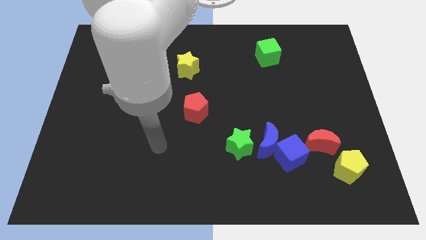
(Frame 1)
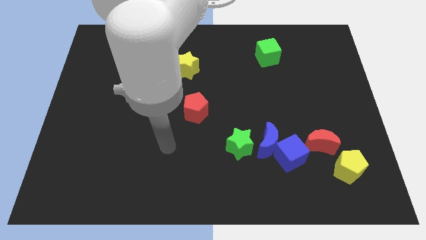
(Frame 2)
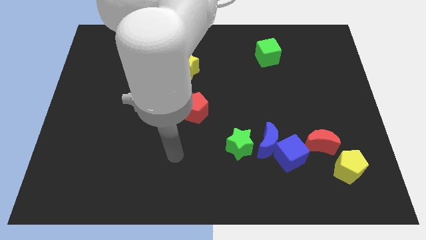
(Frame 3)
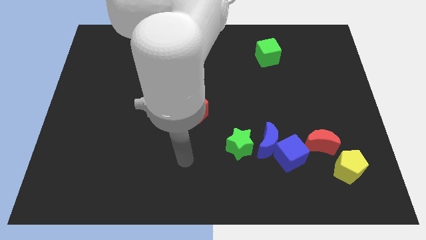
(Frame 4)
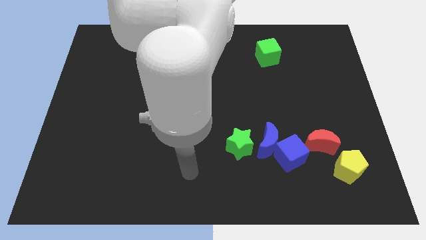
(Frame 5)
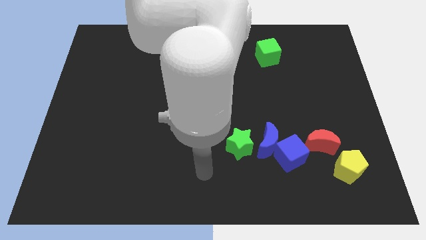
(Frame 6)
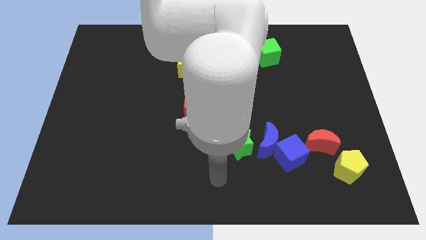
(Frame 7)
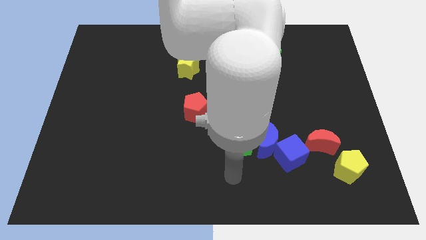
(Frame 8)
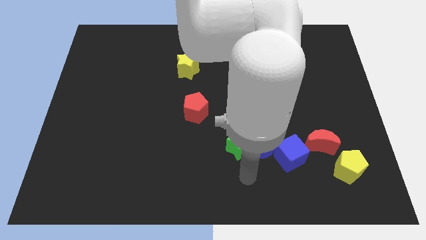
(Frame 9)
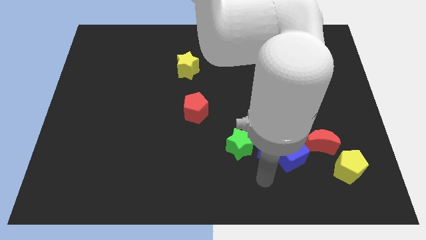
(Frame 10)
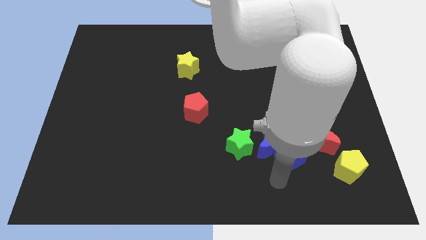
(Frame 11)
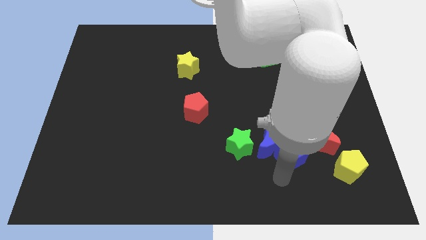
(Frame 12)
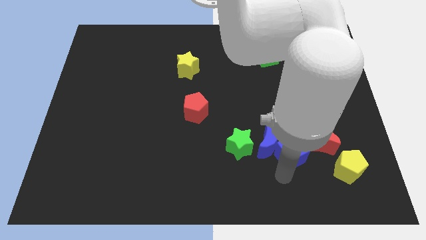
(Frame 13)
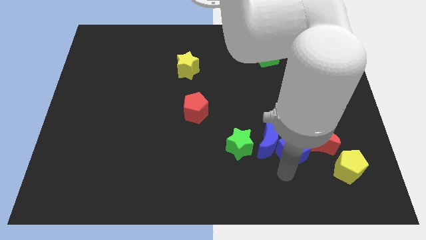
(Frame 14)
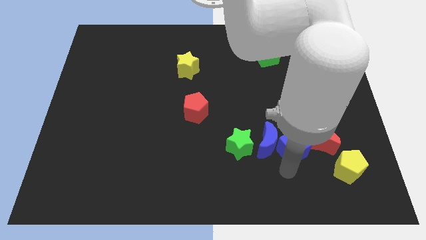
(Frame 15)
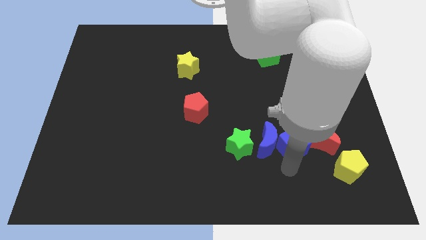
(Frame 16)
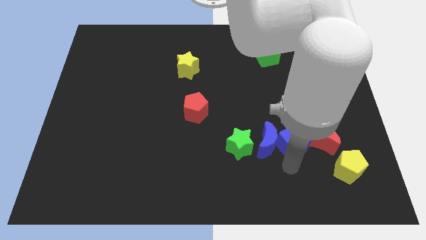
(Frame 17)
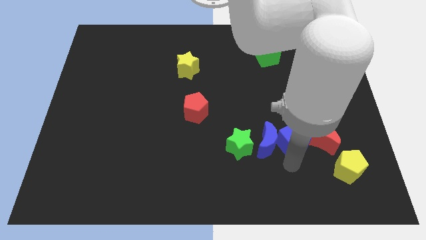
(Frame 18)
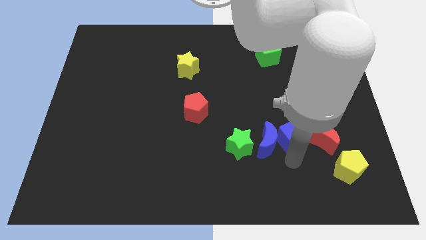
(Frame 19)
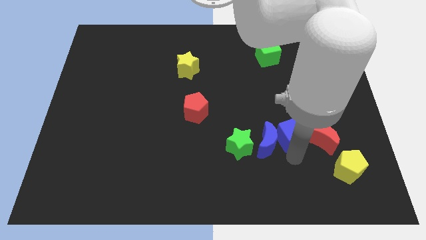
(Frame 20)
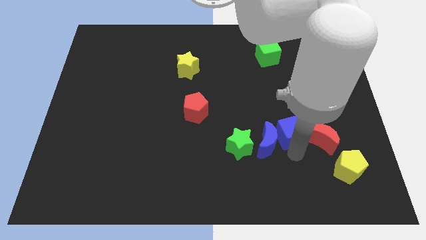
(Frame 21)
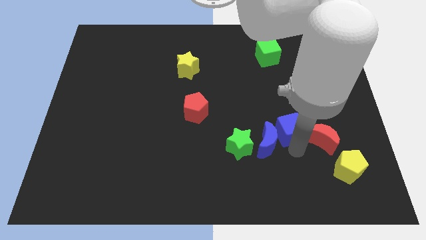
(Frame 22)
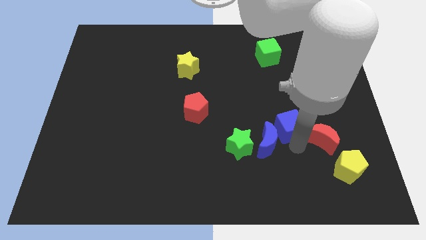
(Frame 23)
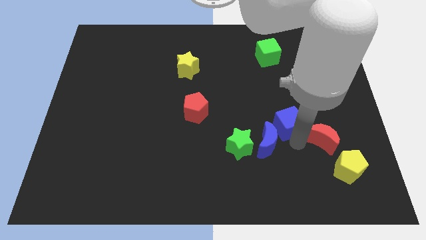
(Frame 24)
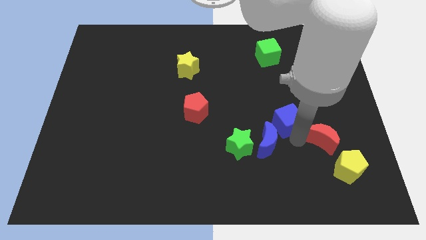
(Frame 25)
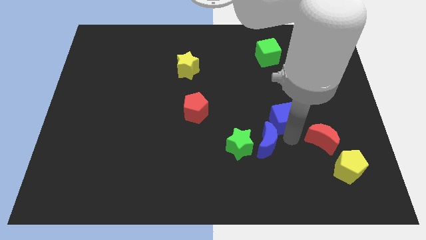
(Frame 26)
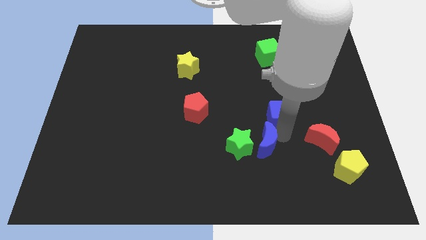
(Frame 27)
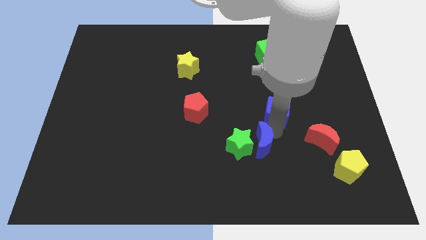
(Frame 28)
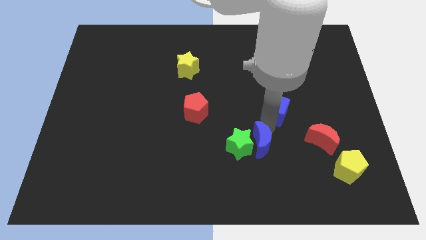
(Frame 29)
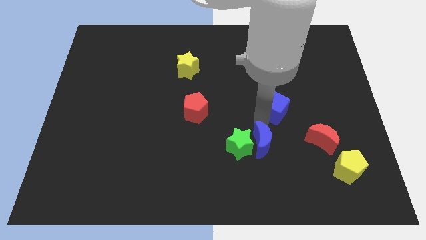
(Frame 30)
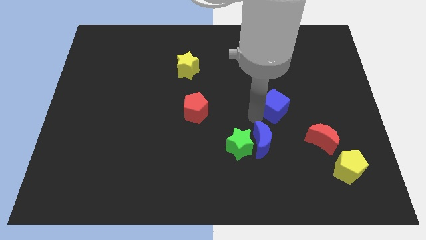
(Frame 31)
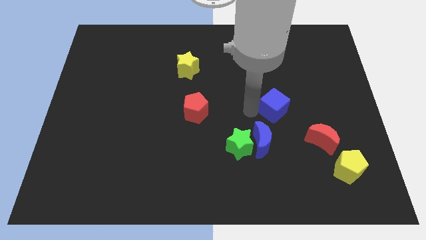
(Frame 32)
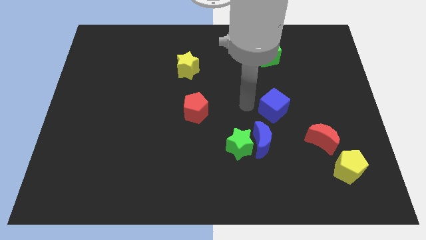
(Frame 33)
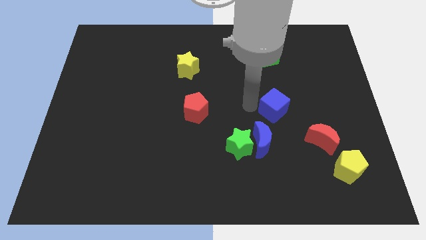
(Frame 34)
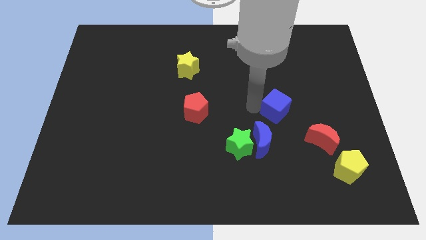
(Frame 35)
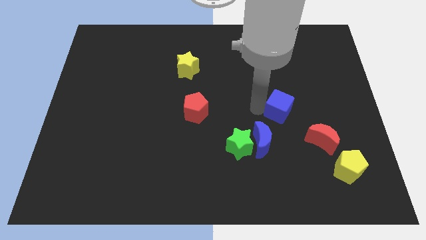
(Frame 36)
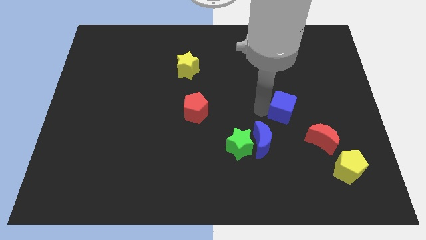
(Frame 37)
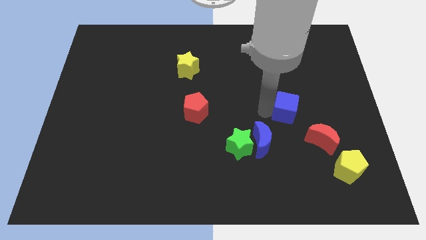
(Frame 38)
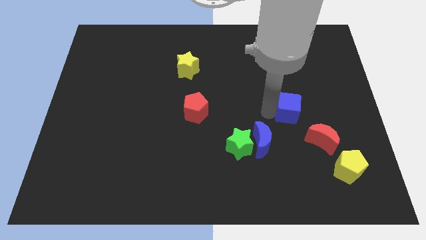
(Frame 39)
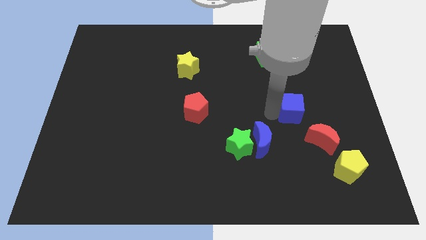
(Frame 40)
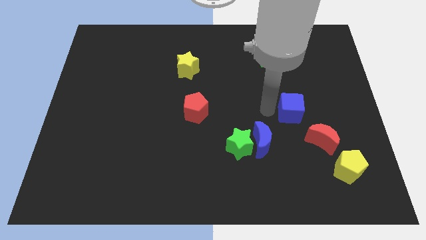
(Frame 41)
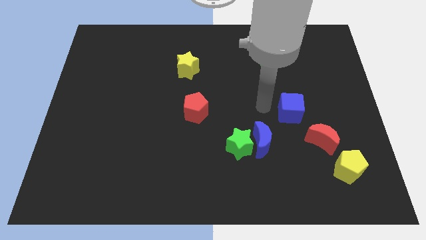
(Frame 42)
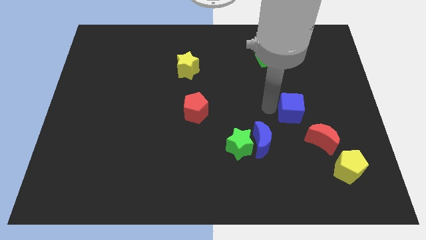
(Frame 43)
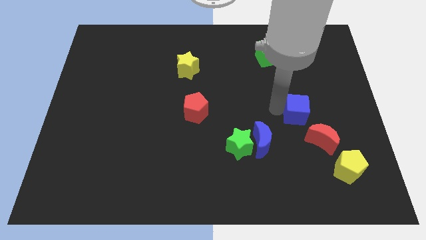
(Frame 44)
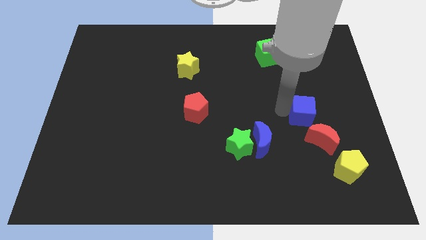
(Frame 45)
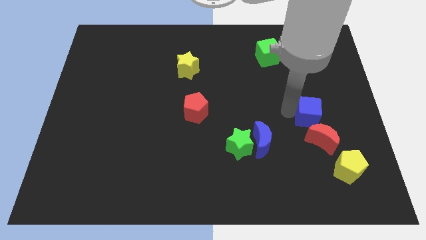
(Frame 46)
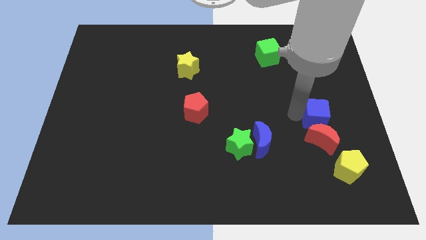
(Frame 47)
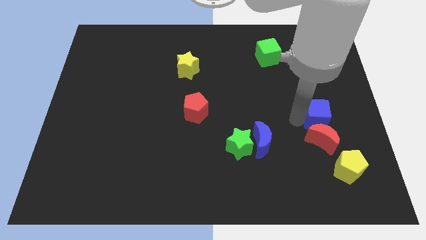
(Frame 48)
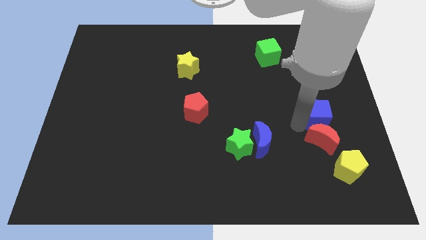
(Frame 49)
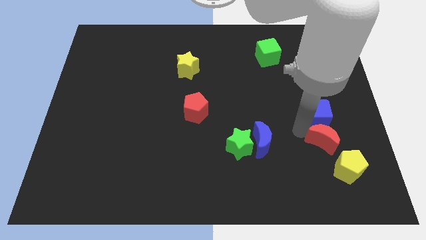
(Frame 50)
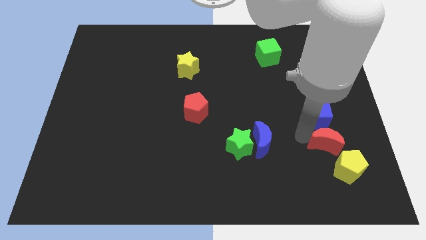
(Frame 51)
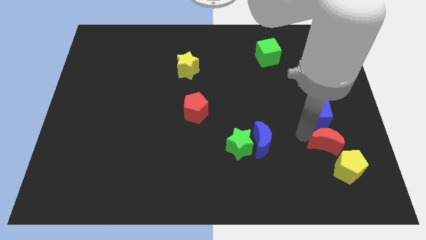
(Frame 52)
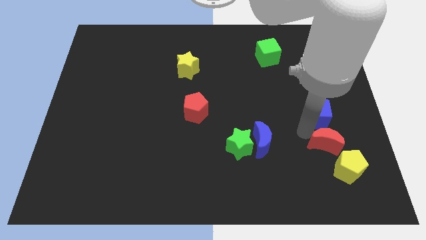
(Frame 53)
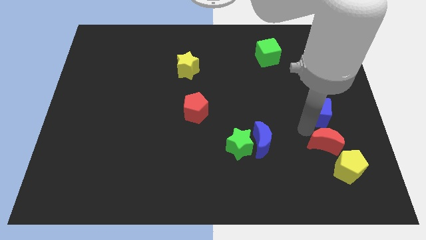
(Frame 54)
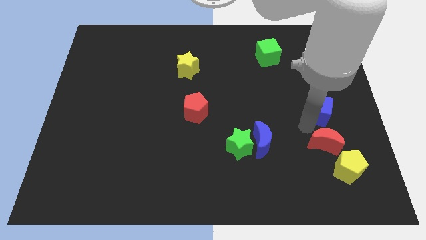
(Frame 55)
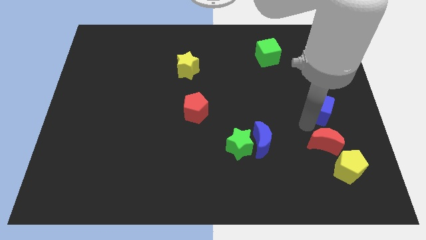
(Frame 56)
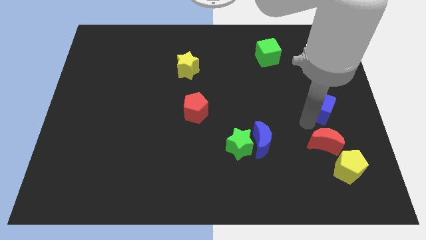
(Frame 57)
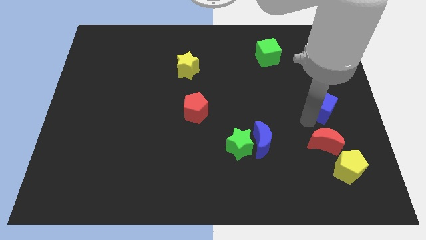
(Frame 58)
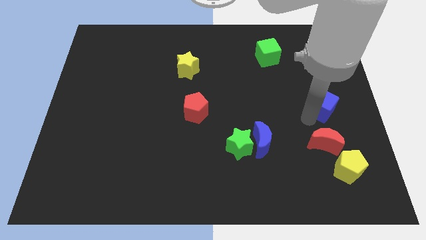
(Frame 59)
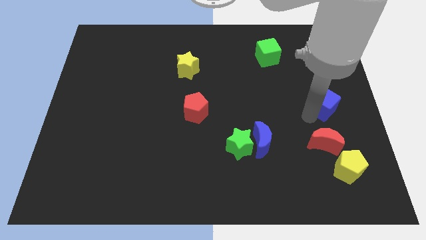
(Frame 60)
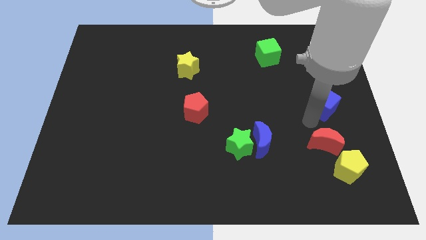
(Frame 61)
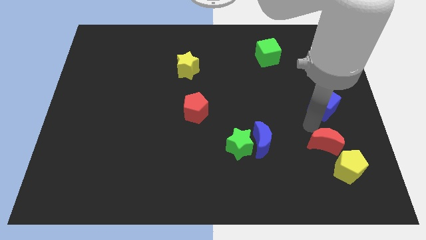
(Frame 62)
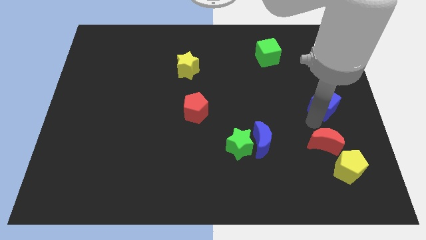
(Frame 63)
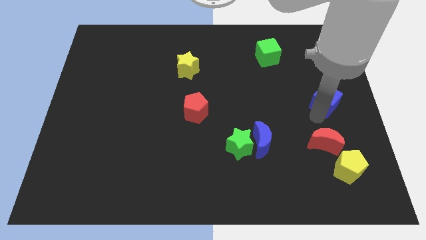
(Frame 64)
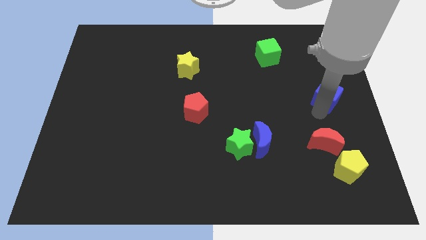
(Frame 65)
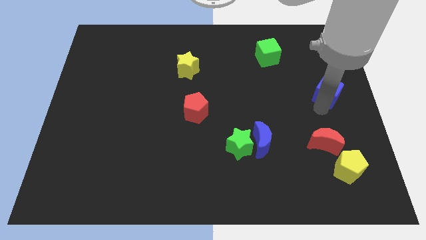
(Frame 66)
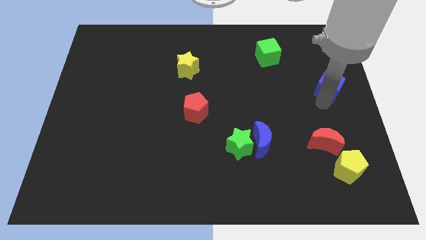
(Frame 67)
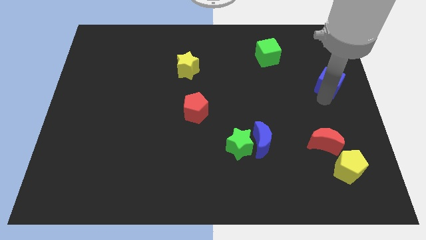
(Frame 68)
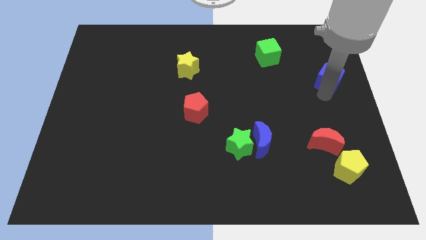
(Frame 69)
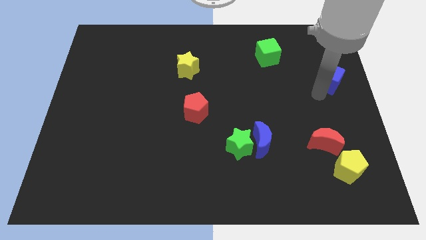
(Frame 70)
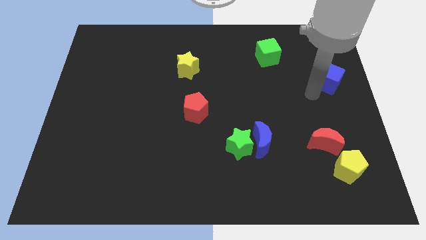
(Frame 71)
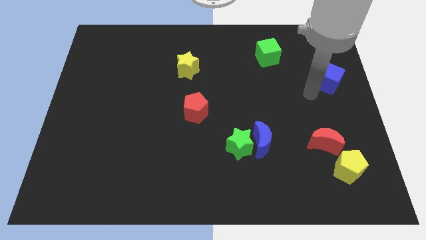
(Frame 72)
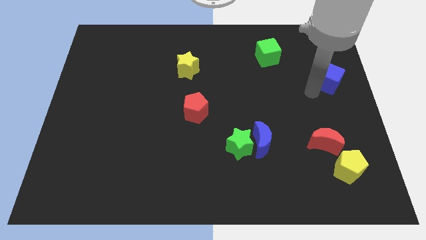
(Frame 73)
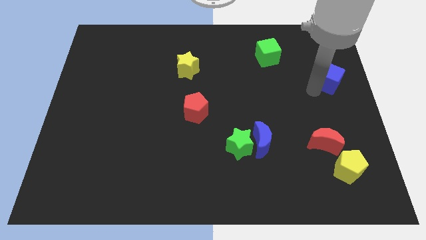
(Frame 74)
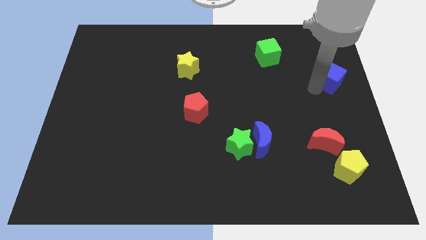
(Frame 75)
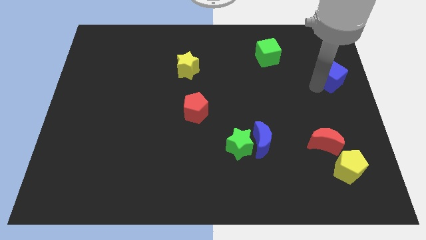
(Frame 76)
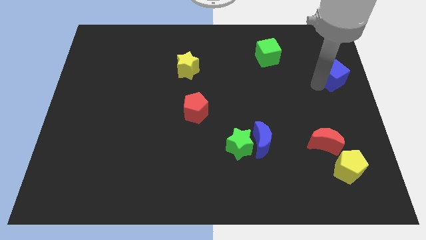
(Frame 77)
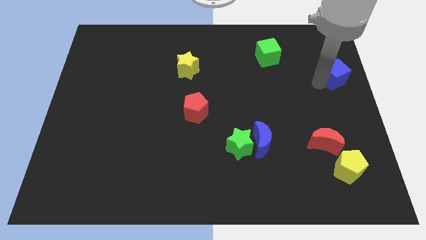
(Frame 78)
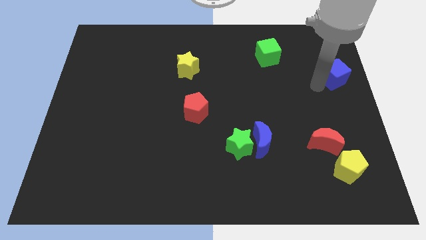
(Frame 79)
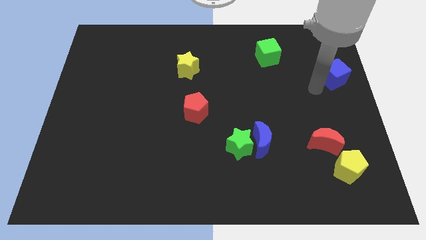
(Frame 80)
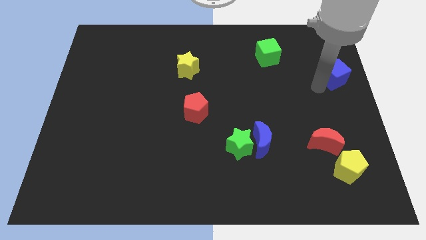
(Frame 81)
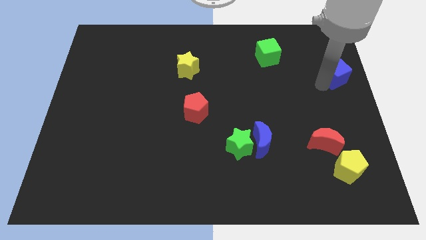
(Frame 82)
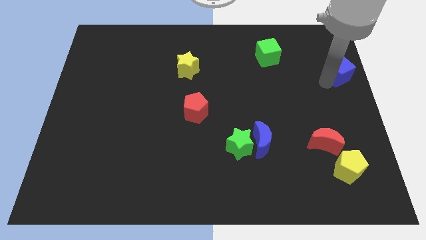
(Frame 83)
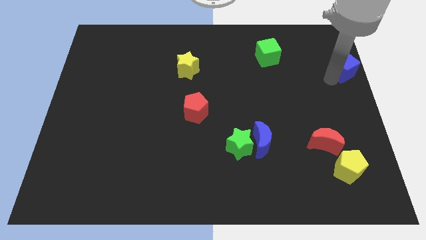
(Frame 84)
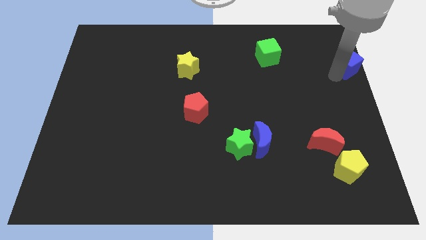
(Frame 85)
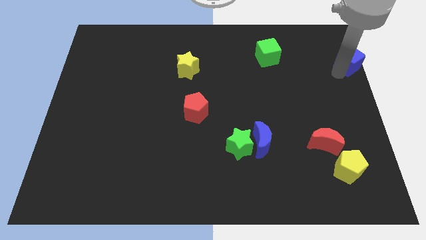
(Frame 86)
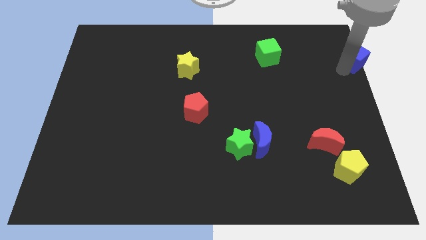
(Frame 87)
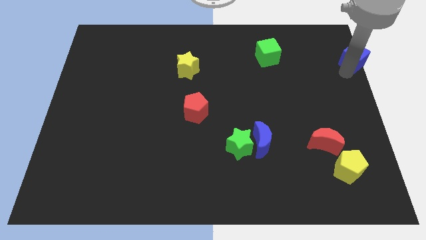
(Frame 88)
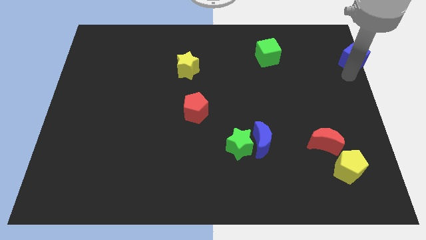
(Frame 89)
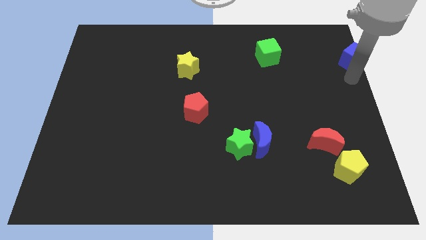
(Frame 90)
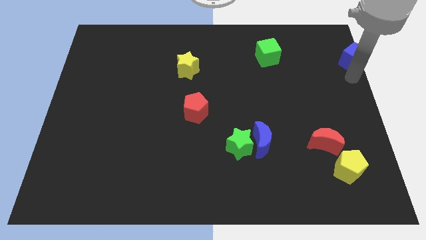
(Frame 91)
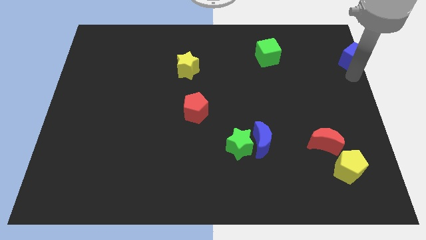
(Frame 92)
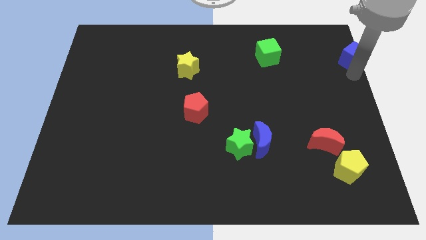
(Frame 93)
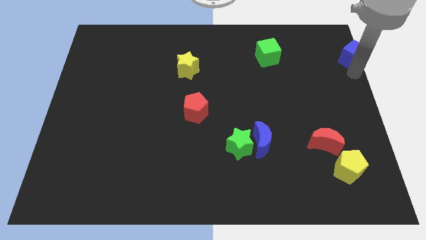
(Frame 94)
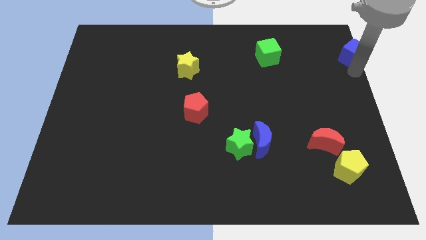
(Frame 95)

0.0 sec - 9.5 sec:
push the blue cube to the upper right corner
